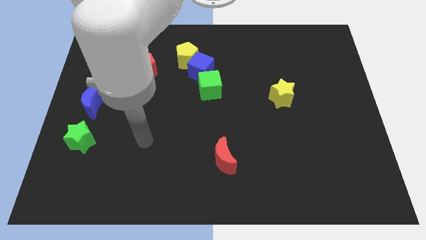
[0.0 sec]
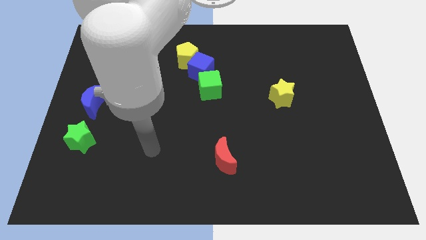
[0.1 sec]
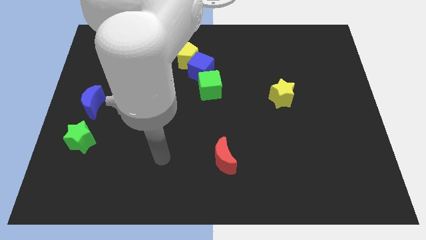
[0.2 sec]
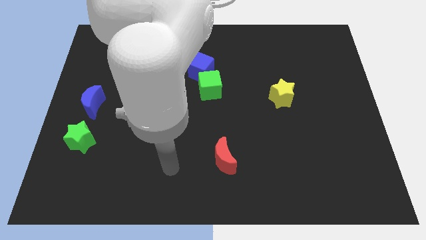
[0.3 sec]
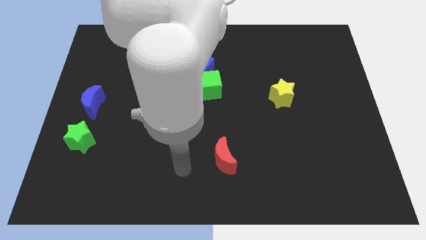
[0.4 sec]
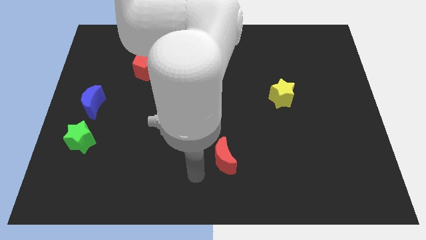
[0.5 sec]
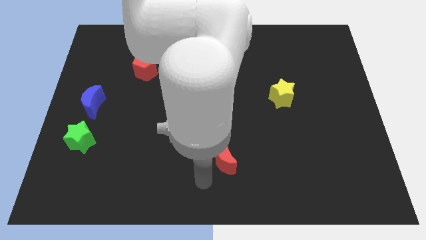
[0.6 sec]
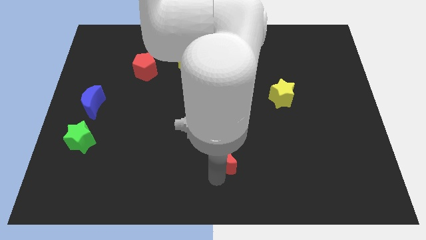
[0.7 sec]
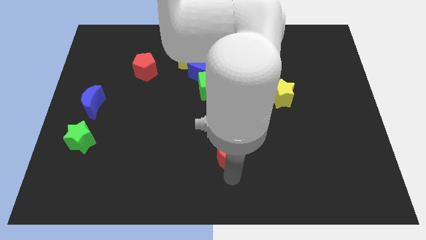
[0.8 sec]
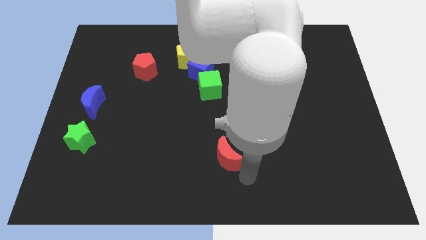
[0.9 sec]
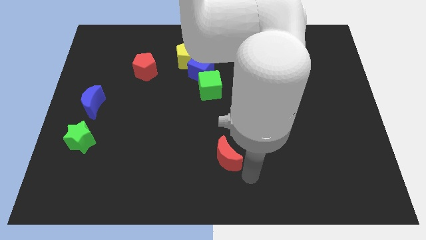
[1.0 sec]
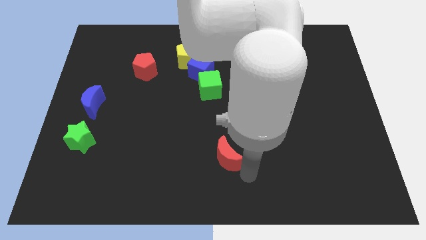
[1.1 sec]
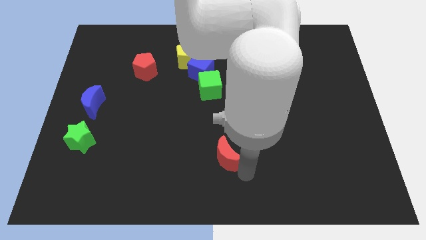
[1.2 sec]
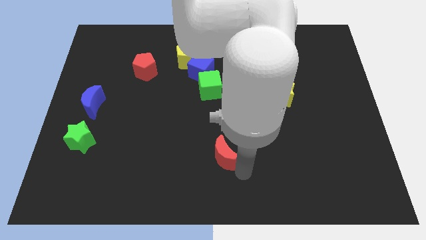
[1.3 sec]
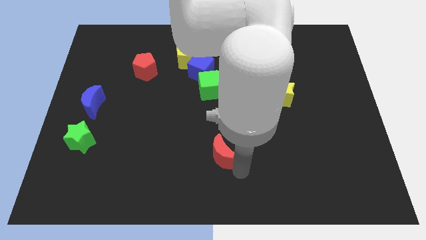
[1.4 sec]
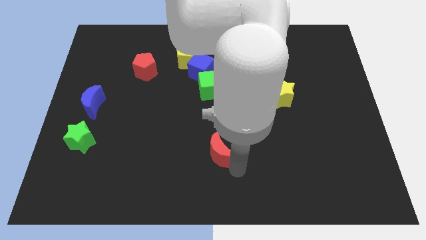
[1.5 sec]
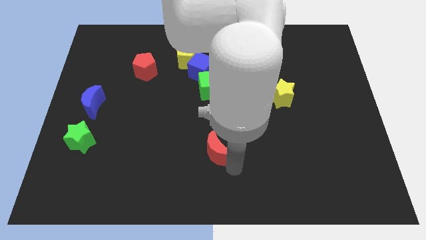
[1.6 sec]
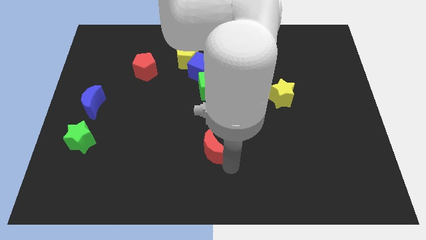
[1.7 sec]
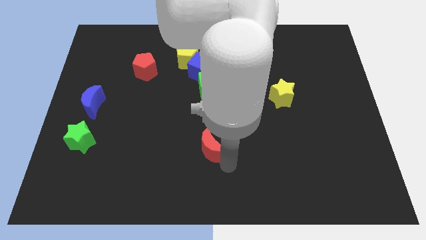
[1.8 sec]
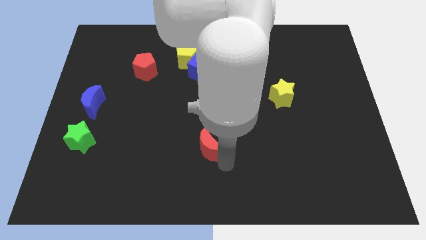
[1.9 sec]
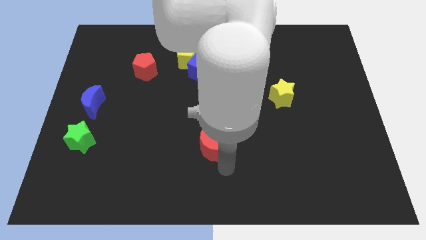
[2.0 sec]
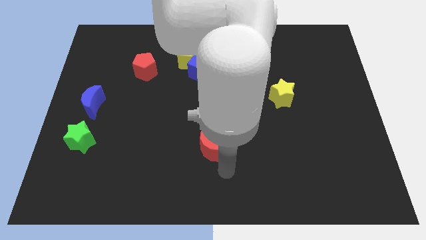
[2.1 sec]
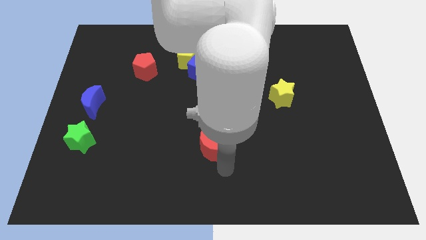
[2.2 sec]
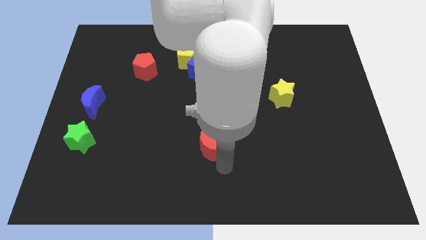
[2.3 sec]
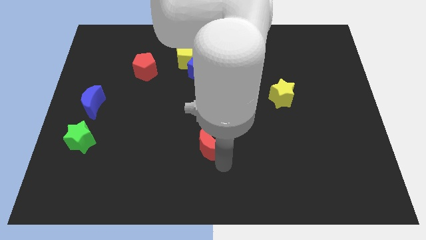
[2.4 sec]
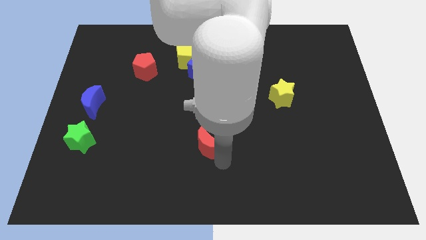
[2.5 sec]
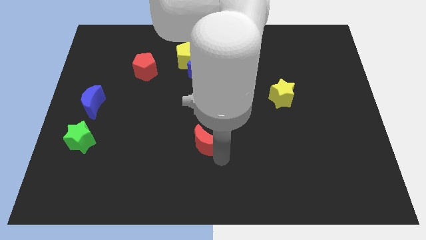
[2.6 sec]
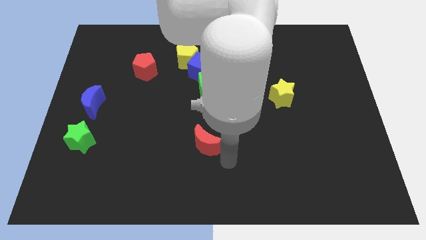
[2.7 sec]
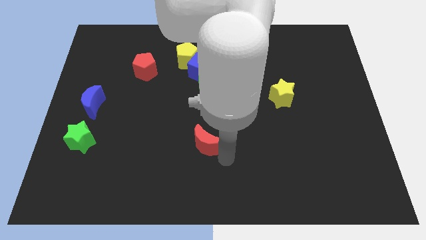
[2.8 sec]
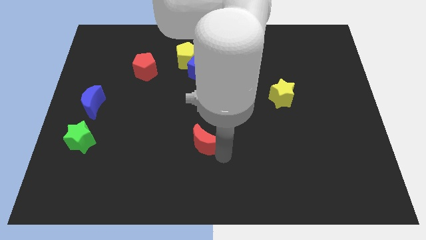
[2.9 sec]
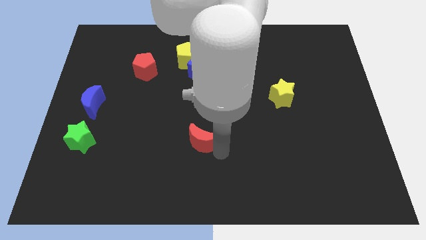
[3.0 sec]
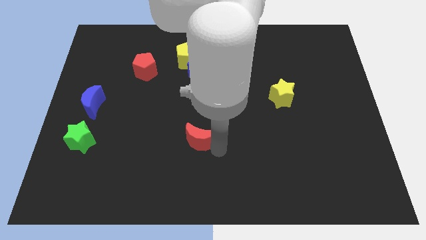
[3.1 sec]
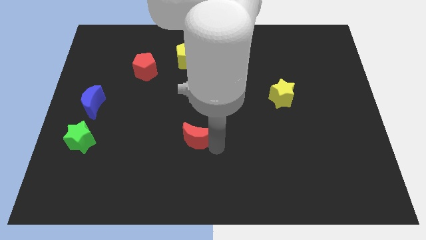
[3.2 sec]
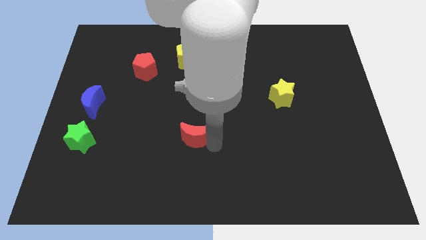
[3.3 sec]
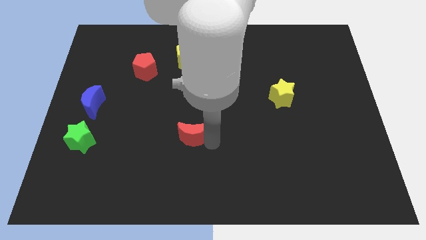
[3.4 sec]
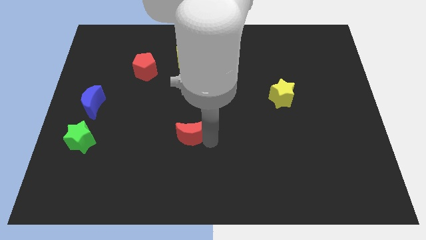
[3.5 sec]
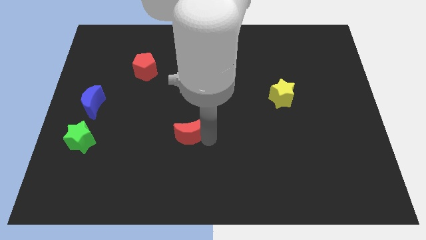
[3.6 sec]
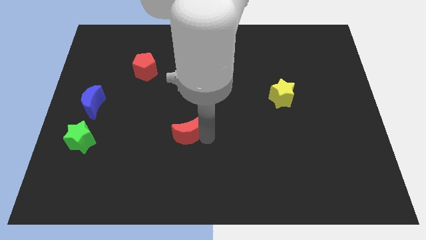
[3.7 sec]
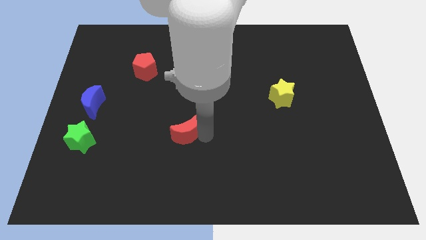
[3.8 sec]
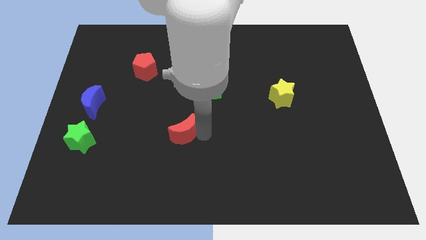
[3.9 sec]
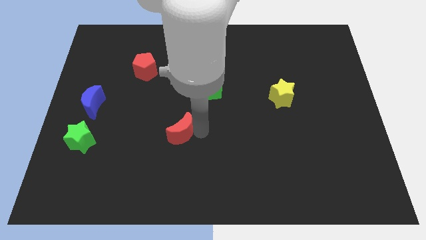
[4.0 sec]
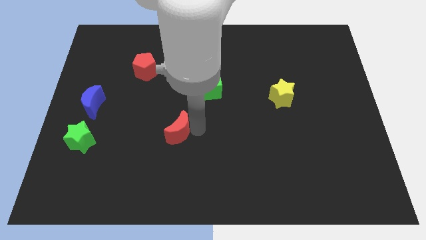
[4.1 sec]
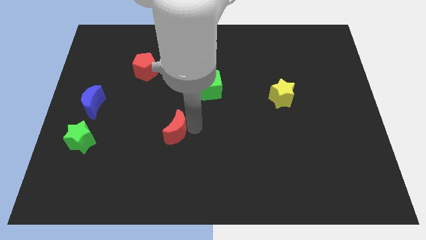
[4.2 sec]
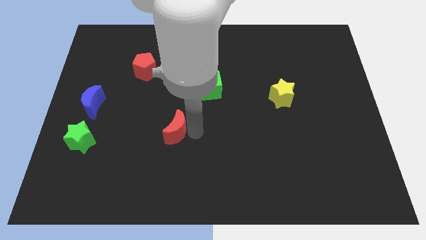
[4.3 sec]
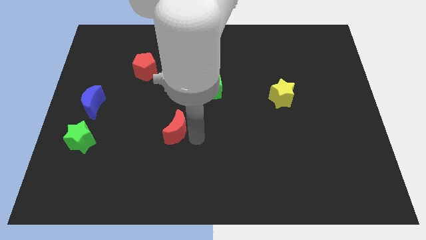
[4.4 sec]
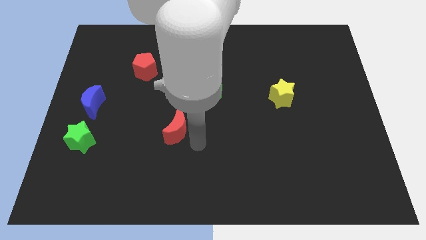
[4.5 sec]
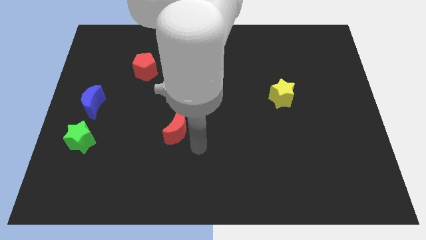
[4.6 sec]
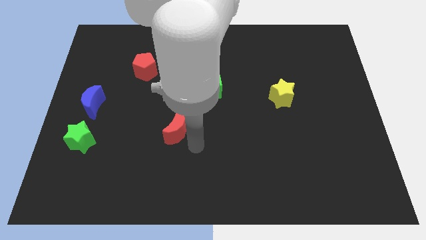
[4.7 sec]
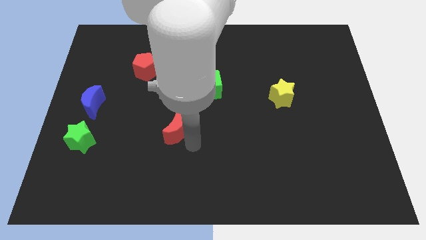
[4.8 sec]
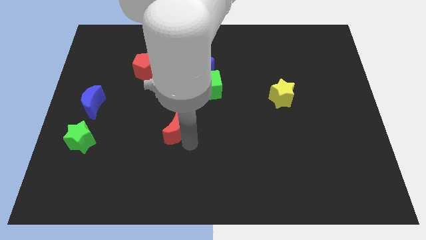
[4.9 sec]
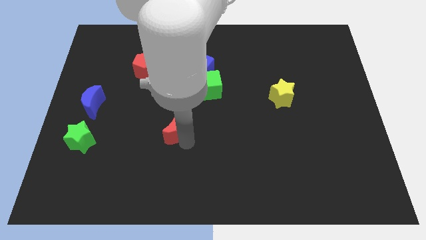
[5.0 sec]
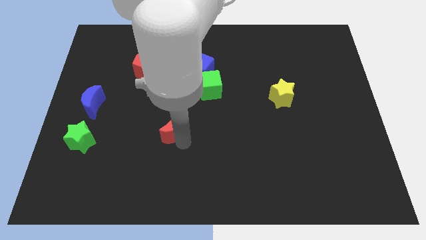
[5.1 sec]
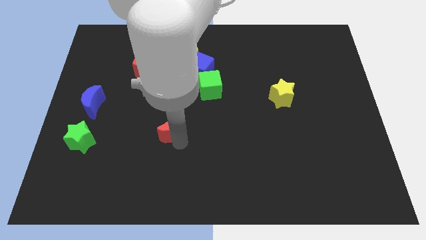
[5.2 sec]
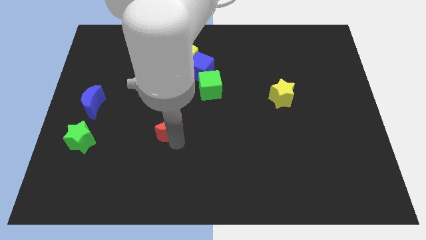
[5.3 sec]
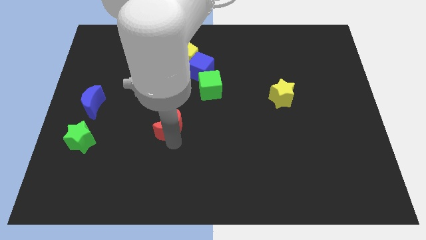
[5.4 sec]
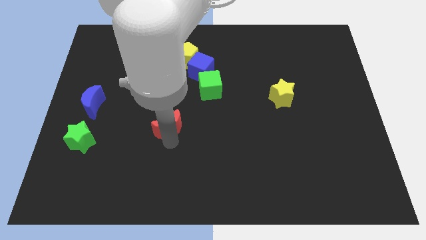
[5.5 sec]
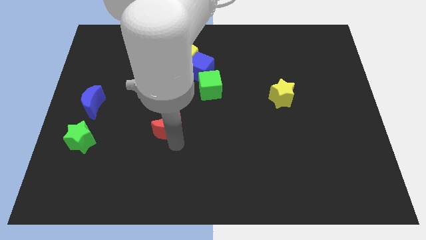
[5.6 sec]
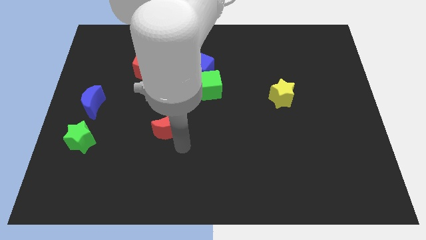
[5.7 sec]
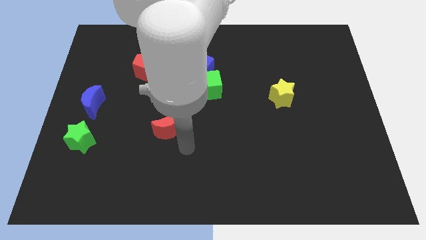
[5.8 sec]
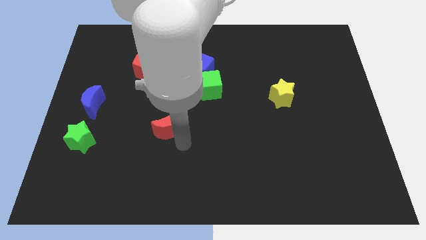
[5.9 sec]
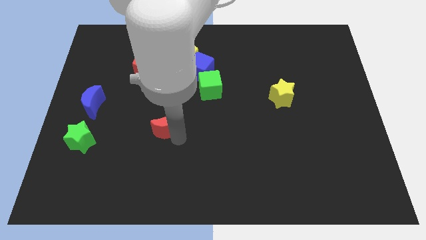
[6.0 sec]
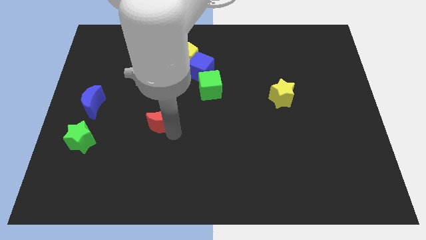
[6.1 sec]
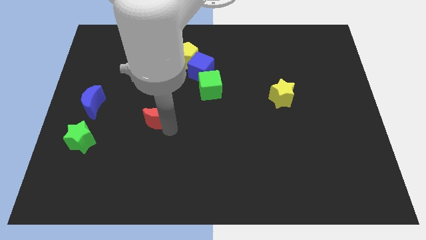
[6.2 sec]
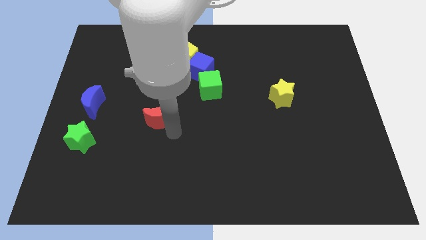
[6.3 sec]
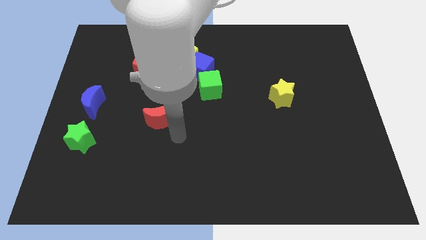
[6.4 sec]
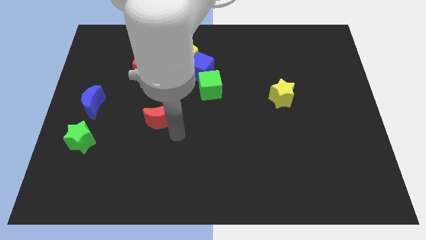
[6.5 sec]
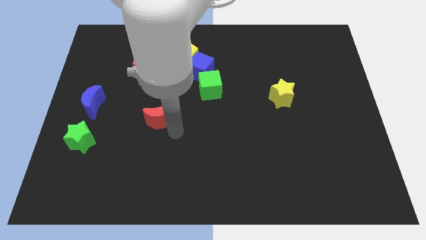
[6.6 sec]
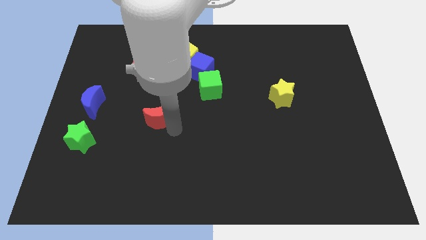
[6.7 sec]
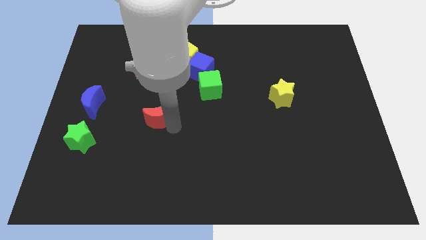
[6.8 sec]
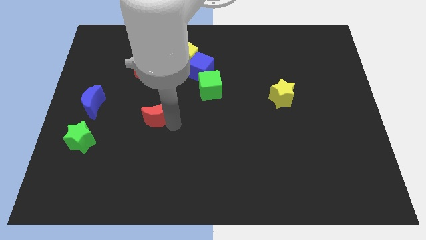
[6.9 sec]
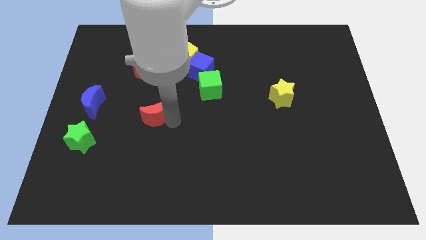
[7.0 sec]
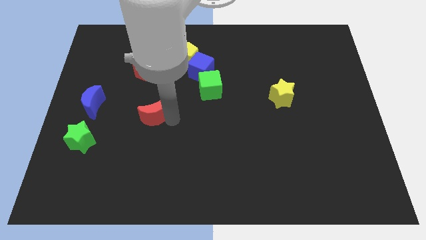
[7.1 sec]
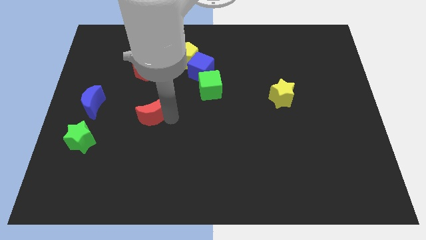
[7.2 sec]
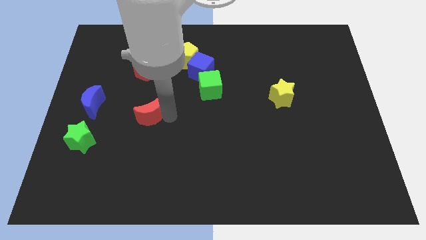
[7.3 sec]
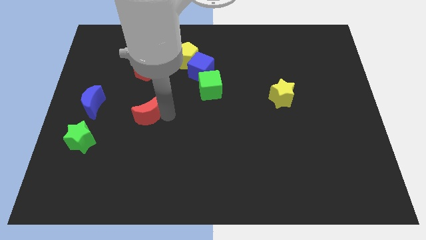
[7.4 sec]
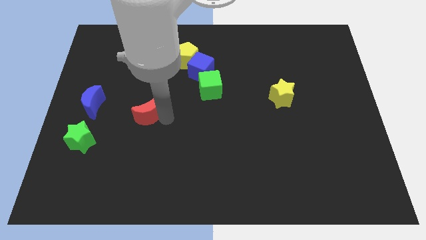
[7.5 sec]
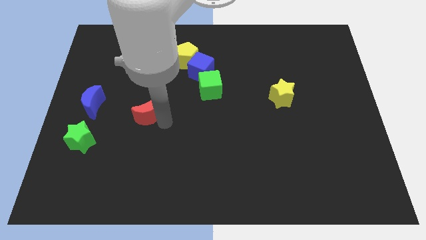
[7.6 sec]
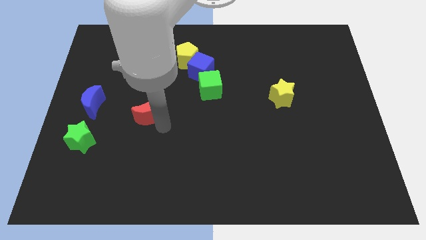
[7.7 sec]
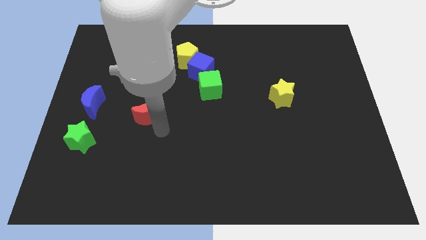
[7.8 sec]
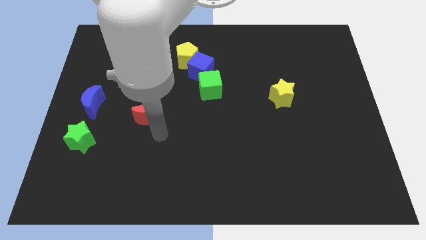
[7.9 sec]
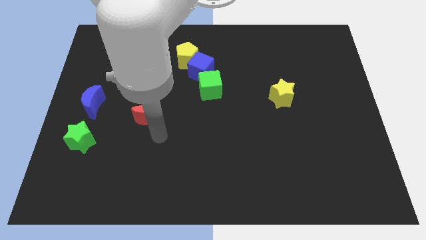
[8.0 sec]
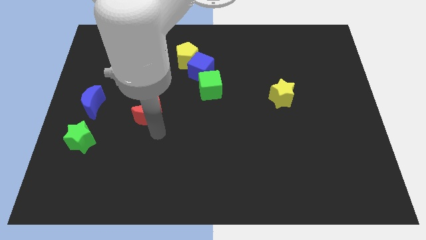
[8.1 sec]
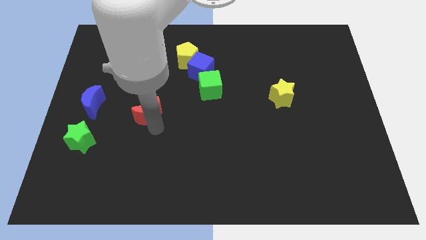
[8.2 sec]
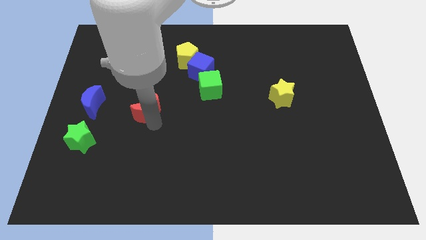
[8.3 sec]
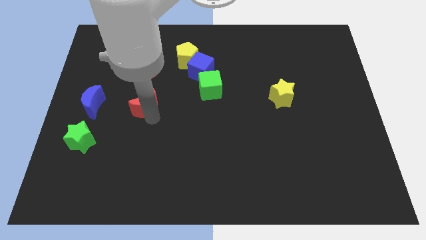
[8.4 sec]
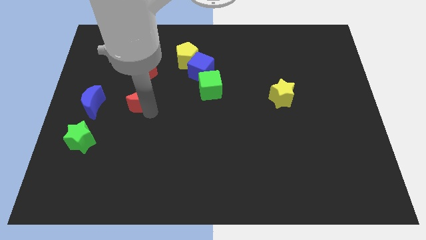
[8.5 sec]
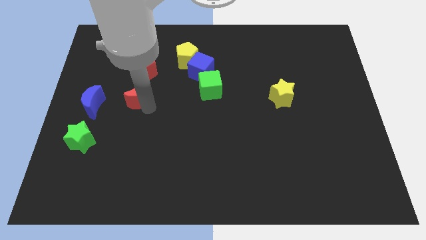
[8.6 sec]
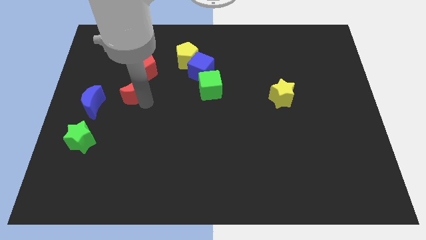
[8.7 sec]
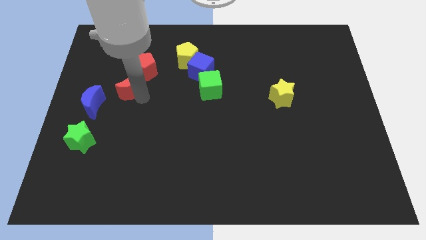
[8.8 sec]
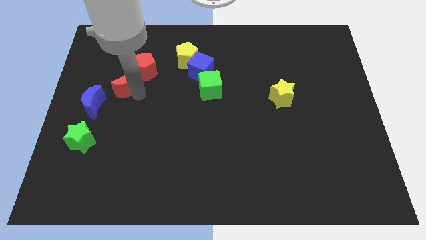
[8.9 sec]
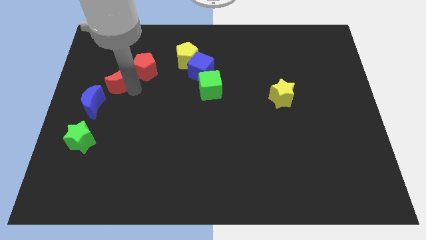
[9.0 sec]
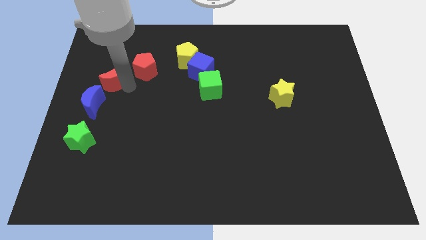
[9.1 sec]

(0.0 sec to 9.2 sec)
push the red moon to the top of the blue moon
